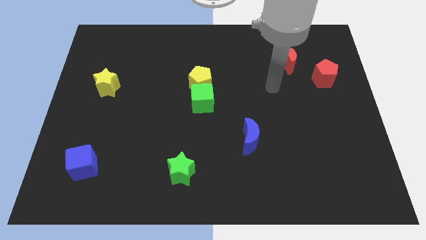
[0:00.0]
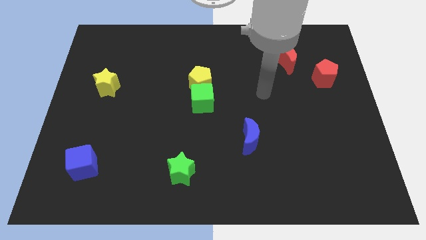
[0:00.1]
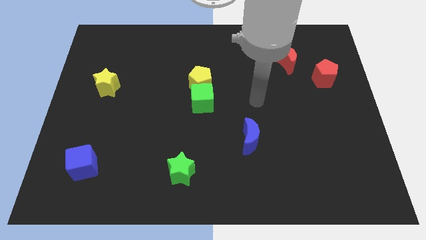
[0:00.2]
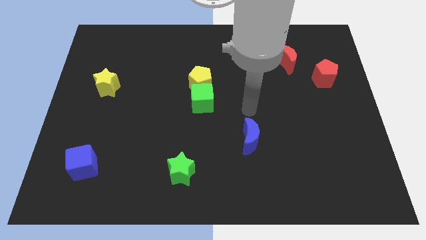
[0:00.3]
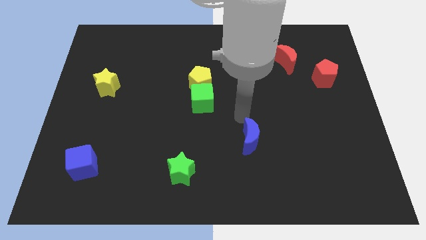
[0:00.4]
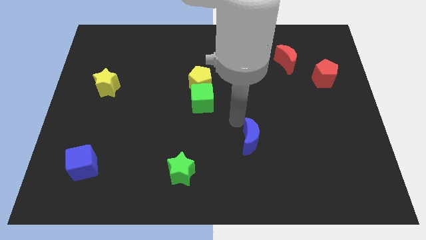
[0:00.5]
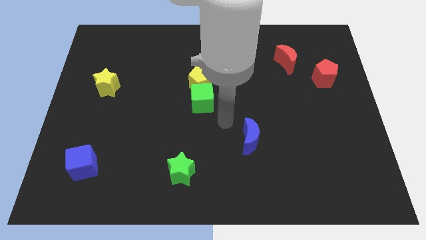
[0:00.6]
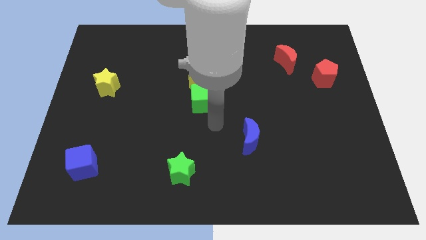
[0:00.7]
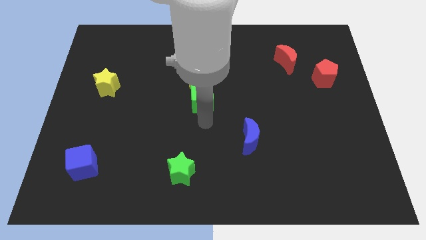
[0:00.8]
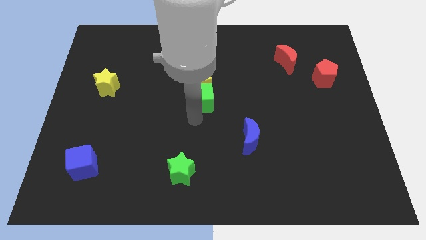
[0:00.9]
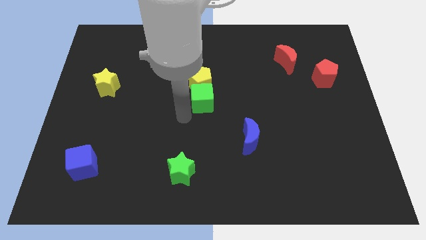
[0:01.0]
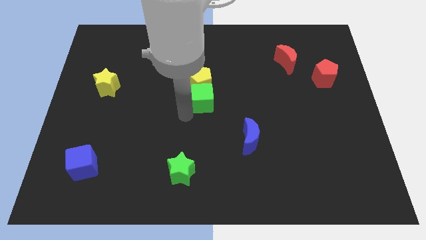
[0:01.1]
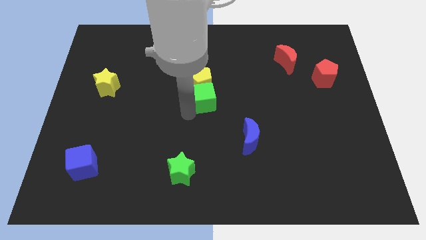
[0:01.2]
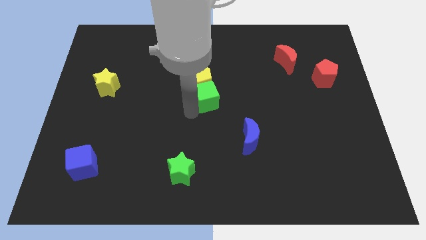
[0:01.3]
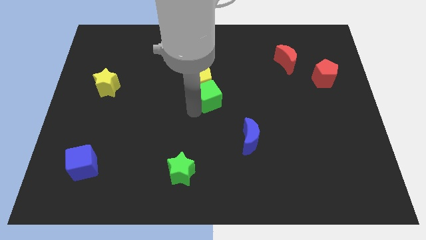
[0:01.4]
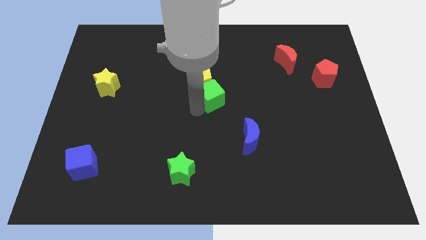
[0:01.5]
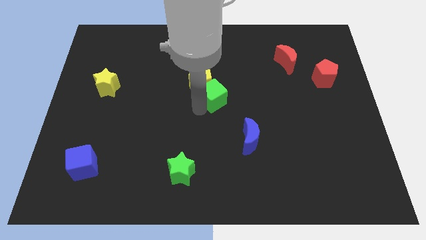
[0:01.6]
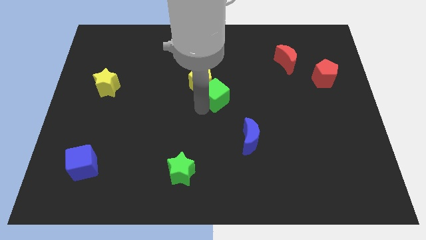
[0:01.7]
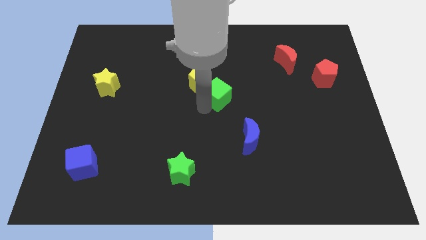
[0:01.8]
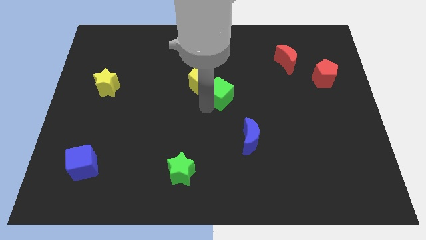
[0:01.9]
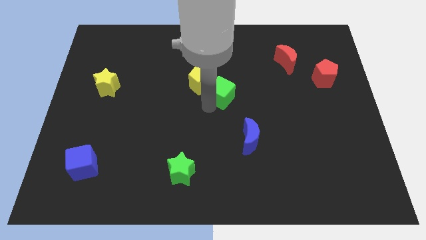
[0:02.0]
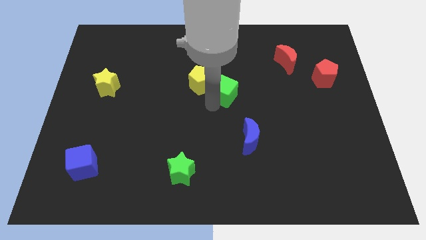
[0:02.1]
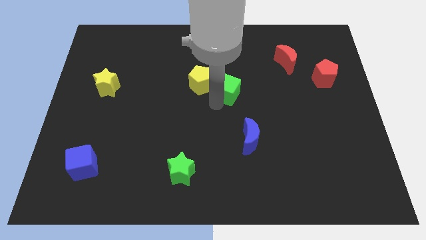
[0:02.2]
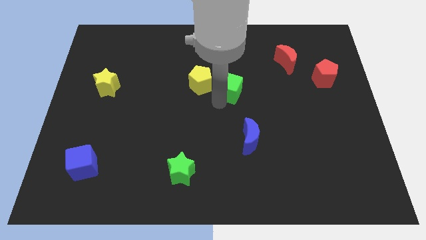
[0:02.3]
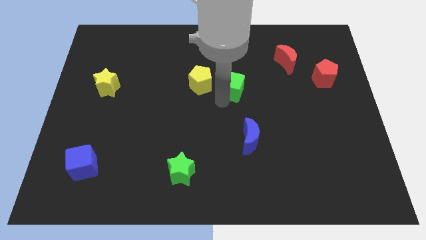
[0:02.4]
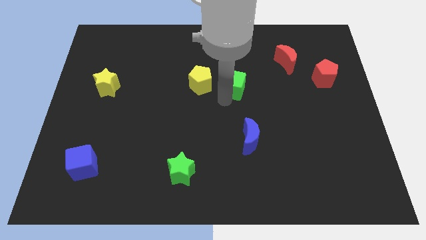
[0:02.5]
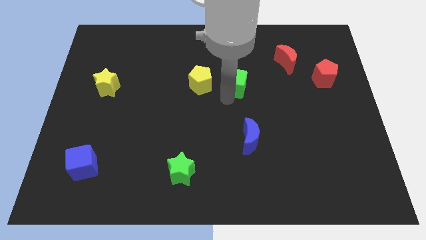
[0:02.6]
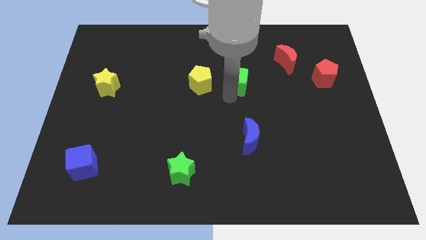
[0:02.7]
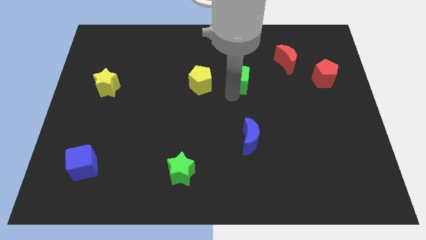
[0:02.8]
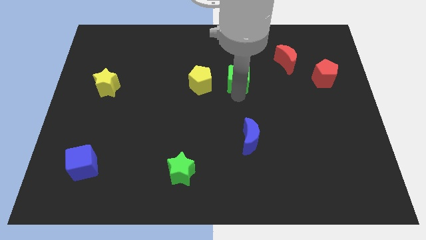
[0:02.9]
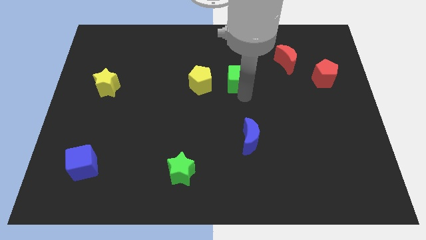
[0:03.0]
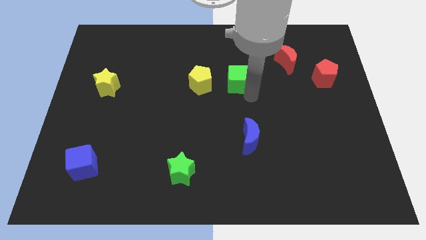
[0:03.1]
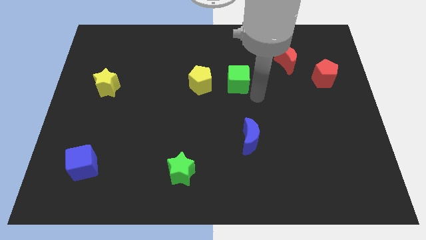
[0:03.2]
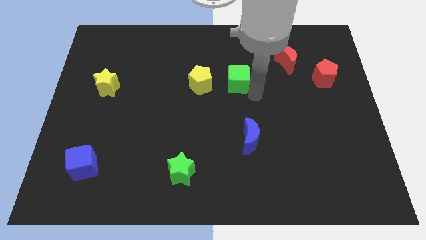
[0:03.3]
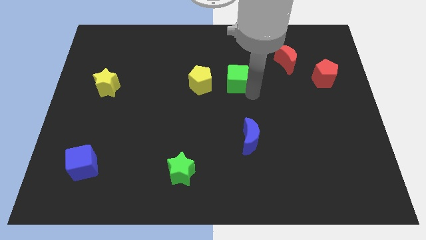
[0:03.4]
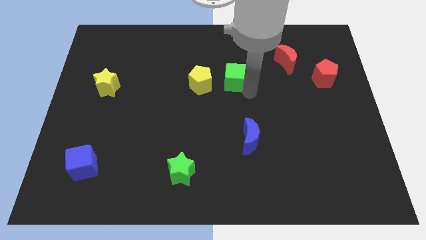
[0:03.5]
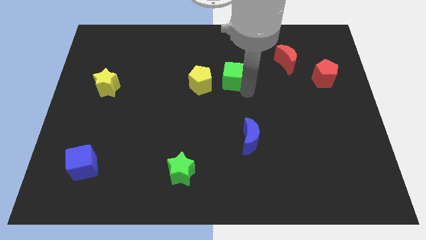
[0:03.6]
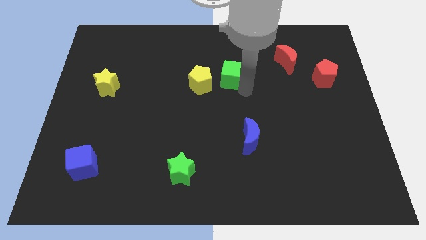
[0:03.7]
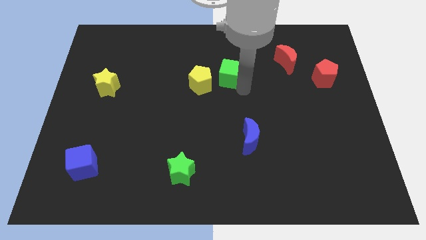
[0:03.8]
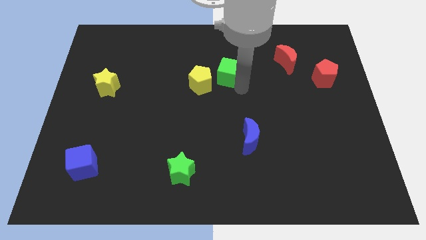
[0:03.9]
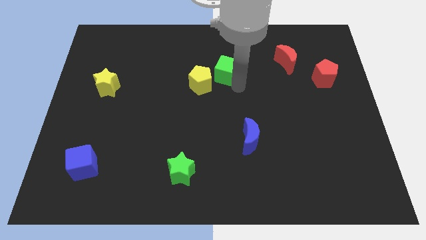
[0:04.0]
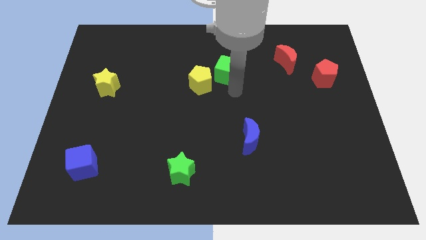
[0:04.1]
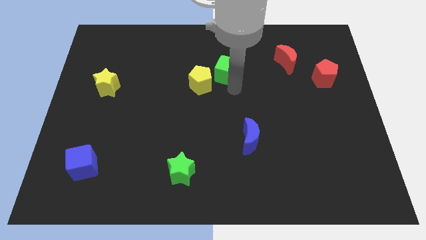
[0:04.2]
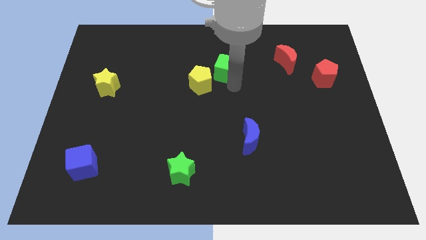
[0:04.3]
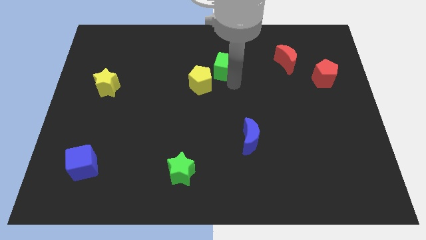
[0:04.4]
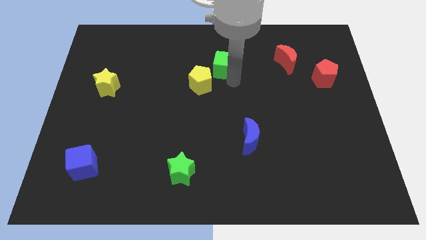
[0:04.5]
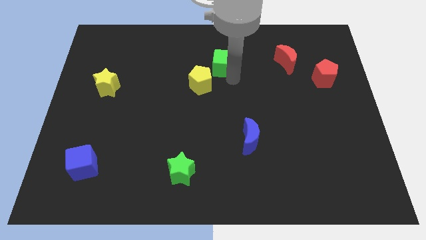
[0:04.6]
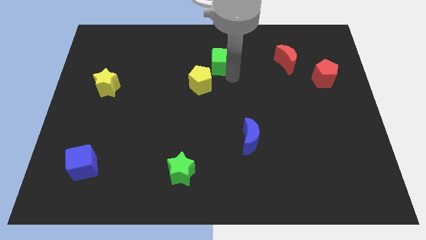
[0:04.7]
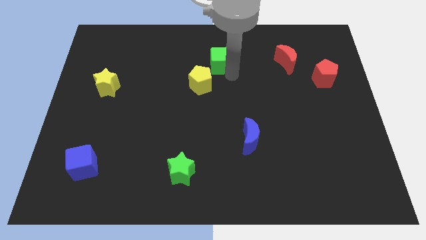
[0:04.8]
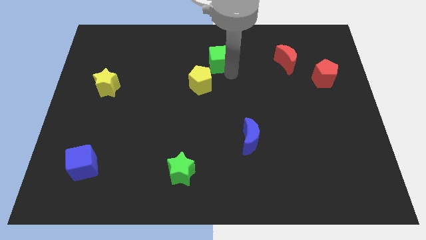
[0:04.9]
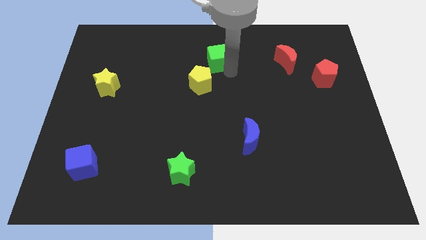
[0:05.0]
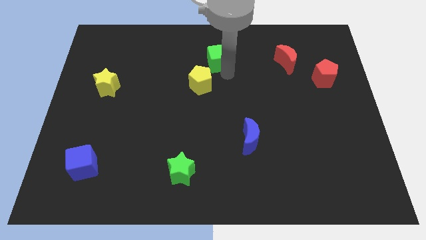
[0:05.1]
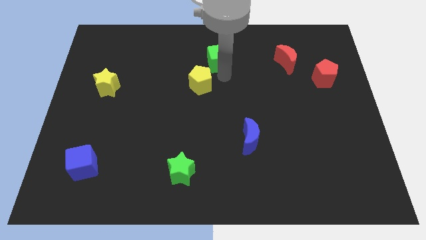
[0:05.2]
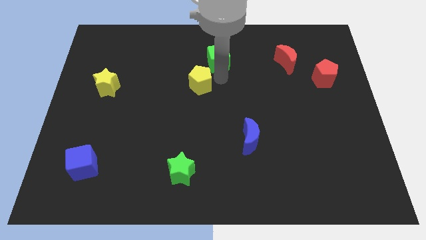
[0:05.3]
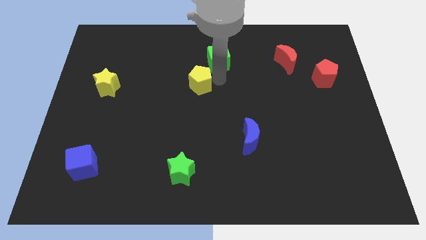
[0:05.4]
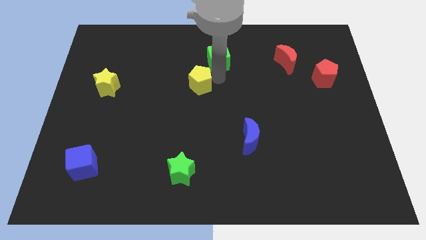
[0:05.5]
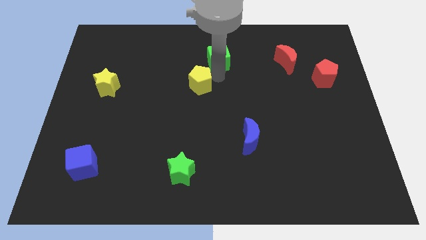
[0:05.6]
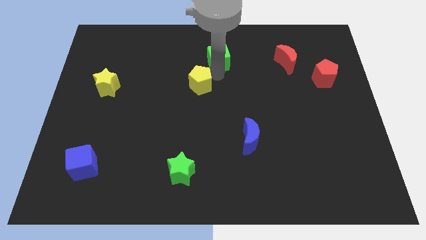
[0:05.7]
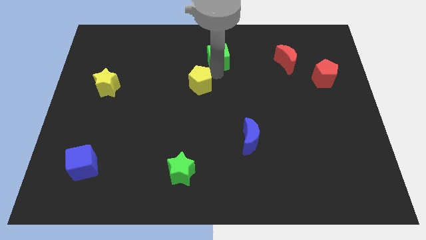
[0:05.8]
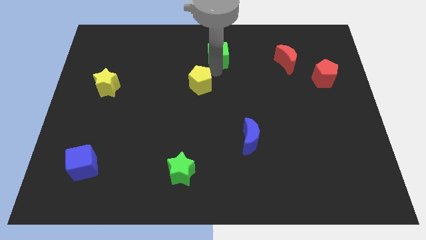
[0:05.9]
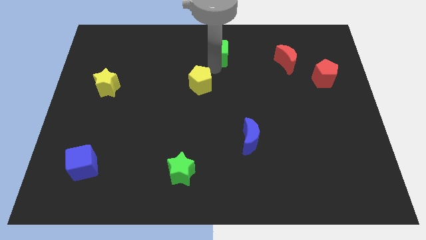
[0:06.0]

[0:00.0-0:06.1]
push the green cube to the towards your base
